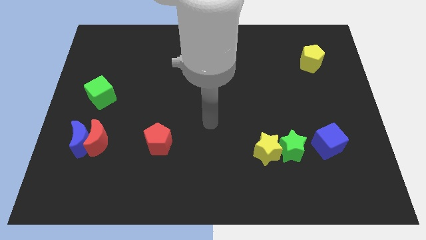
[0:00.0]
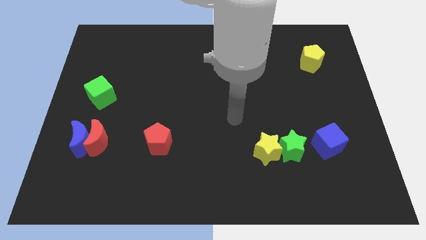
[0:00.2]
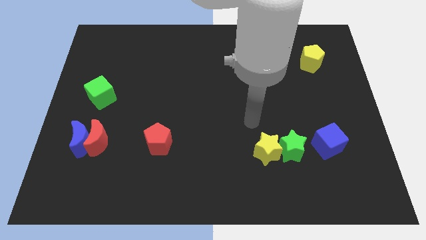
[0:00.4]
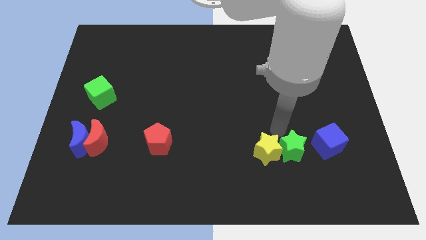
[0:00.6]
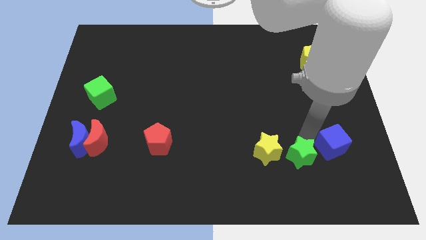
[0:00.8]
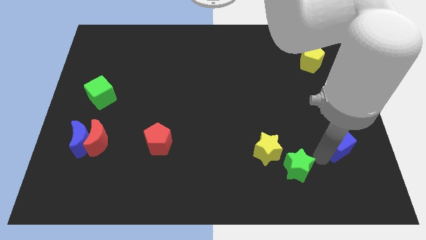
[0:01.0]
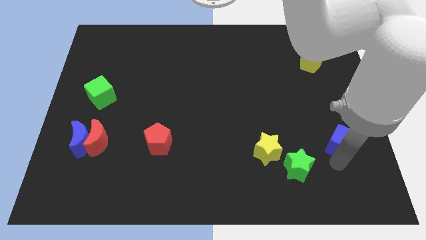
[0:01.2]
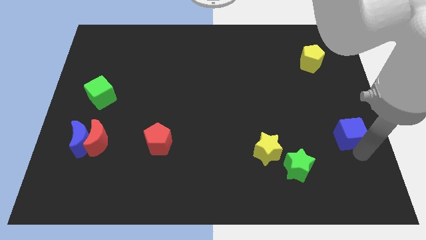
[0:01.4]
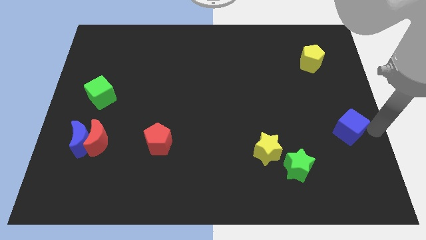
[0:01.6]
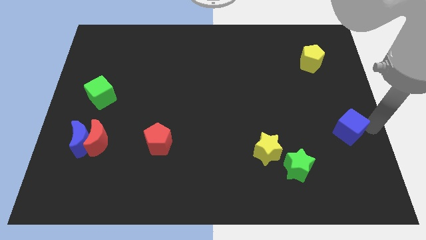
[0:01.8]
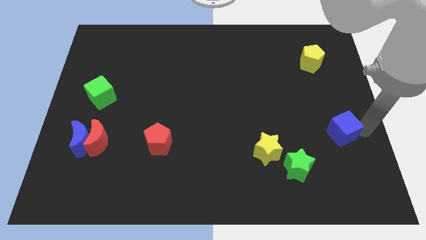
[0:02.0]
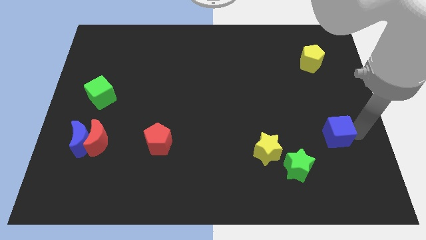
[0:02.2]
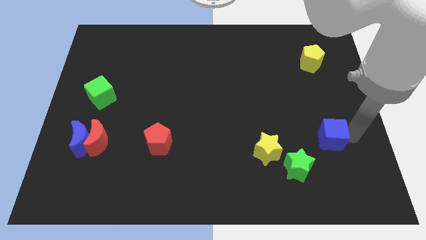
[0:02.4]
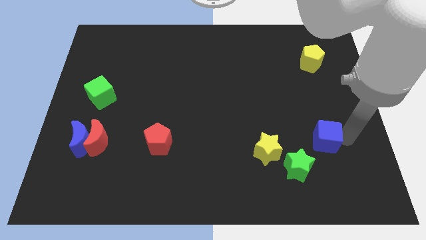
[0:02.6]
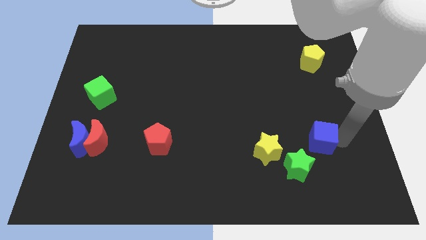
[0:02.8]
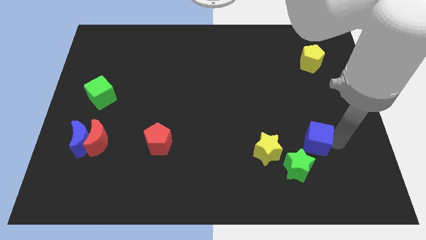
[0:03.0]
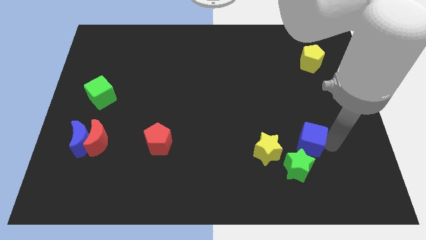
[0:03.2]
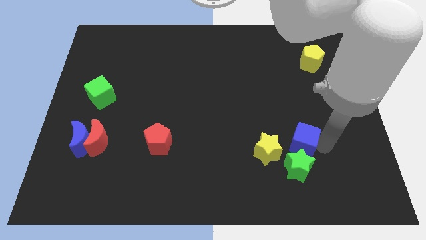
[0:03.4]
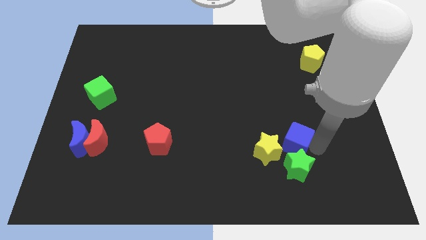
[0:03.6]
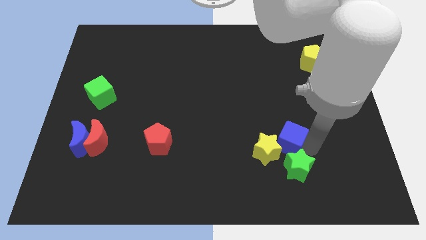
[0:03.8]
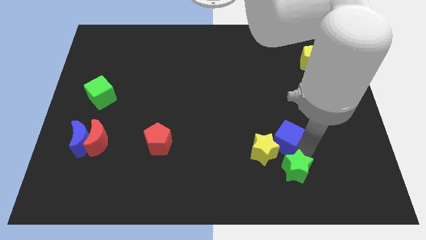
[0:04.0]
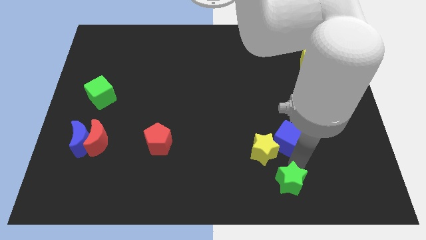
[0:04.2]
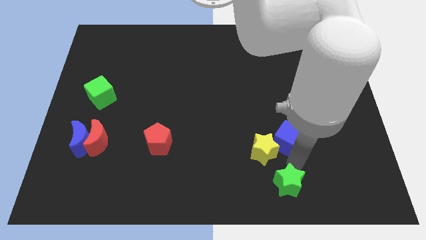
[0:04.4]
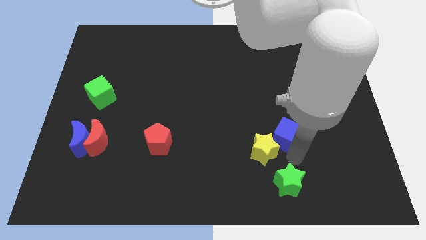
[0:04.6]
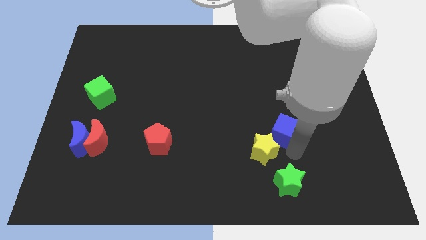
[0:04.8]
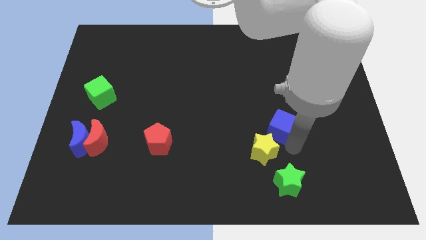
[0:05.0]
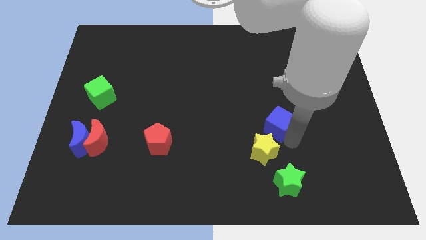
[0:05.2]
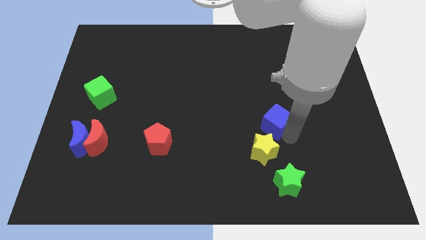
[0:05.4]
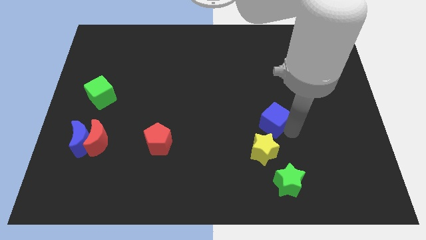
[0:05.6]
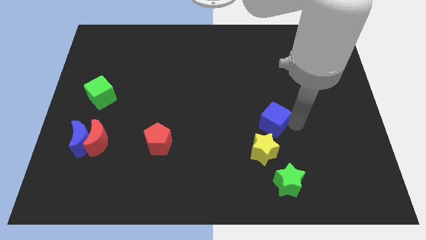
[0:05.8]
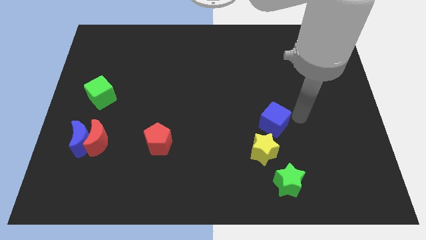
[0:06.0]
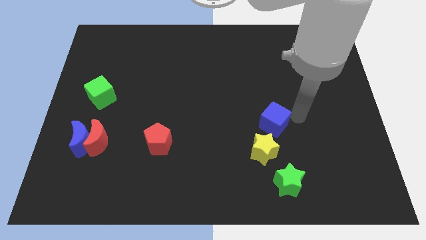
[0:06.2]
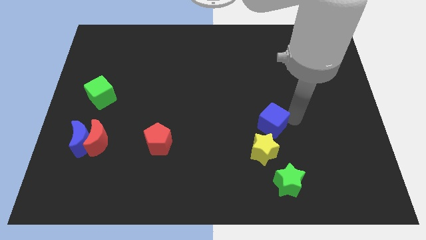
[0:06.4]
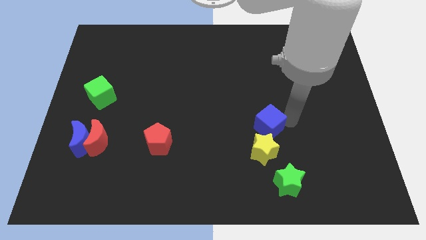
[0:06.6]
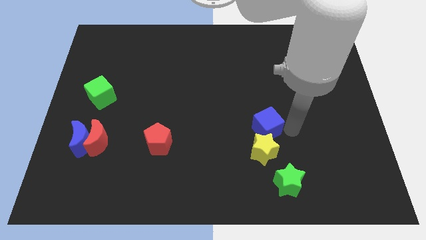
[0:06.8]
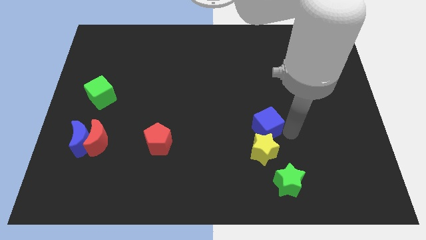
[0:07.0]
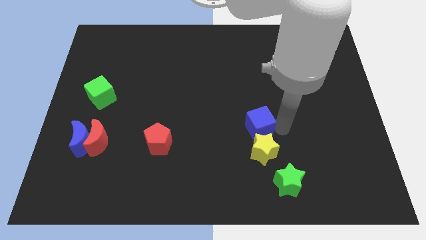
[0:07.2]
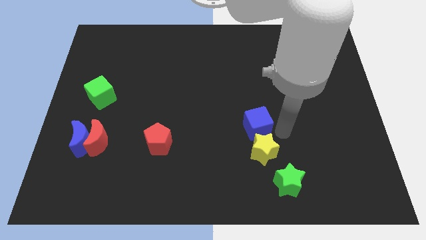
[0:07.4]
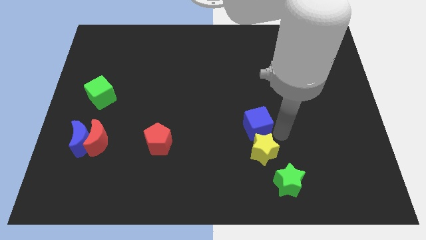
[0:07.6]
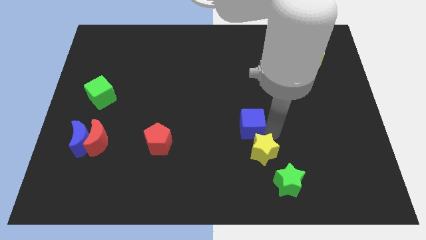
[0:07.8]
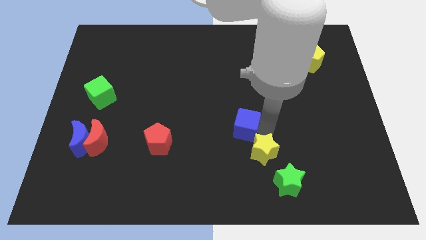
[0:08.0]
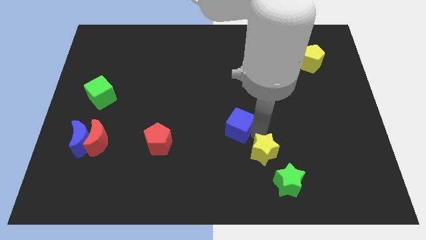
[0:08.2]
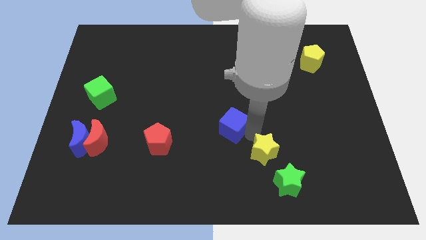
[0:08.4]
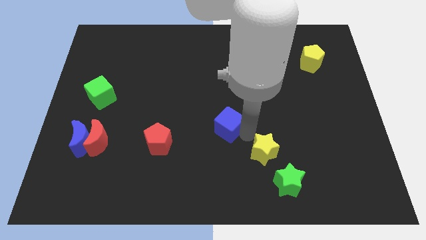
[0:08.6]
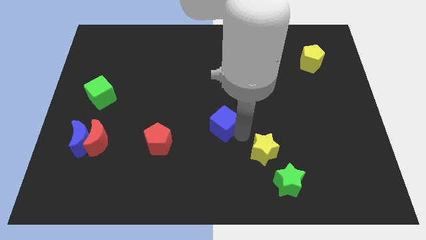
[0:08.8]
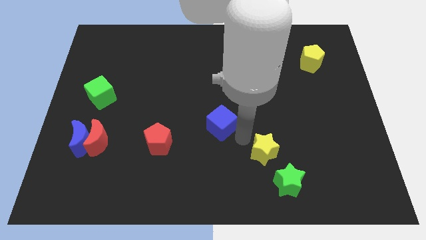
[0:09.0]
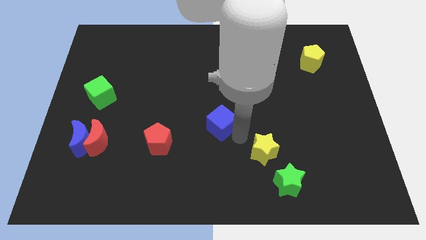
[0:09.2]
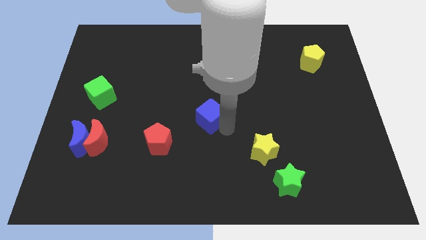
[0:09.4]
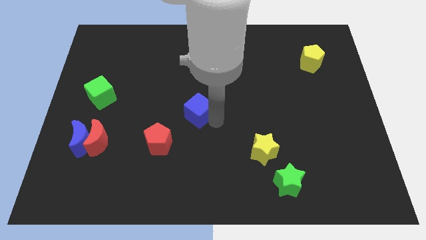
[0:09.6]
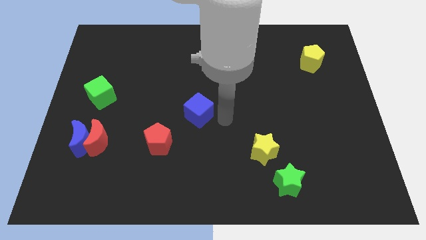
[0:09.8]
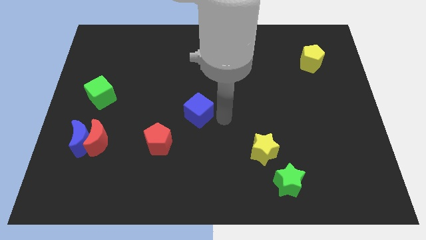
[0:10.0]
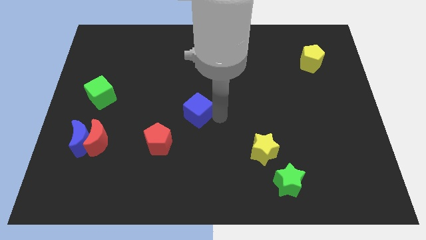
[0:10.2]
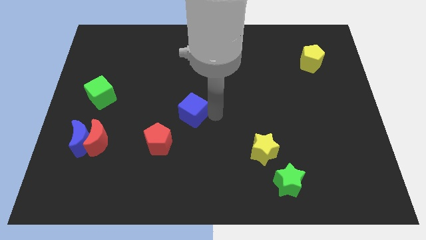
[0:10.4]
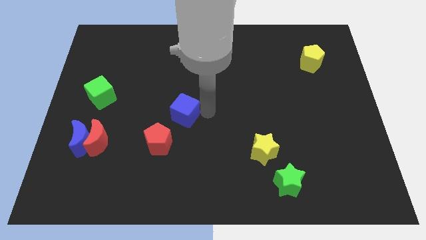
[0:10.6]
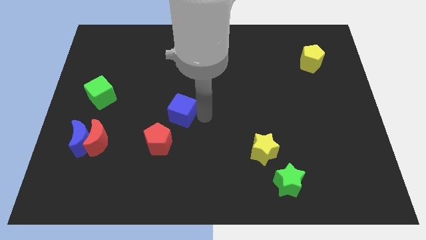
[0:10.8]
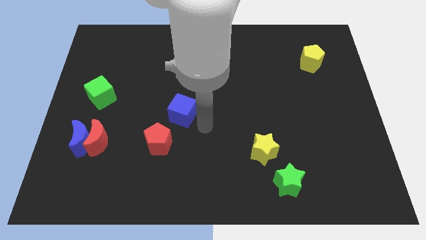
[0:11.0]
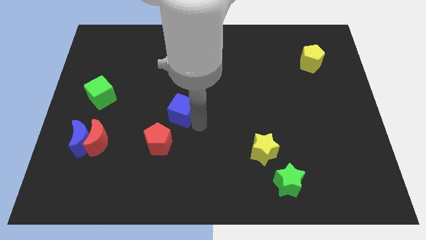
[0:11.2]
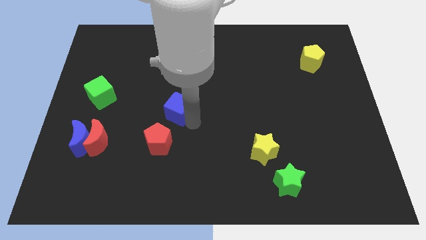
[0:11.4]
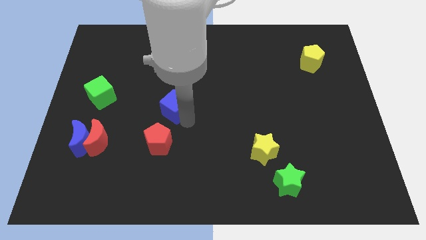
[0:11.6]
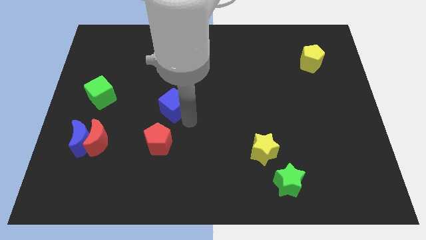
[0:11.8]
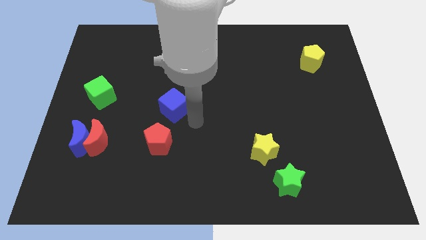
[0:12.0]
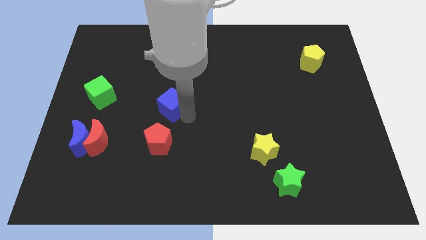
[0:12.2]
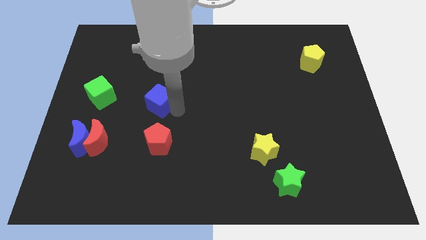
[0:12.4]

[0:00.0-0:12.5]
slide the blue cube just right of the green cube

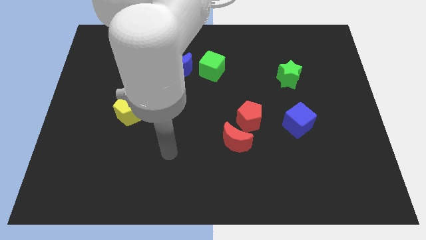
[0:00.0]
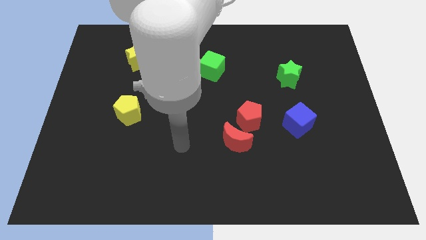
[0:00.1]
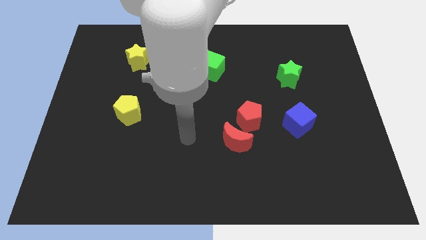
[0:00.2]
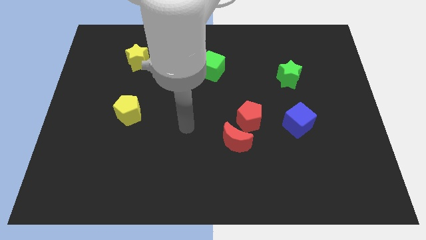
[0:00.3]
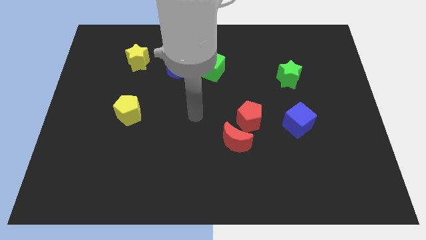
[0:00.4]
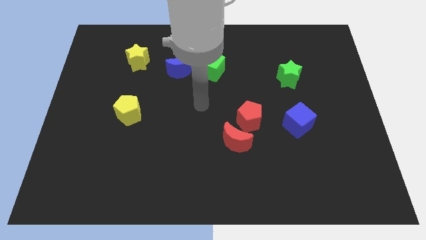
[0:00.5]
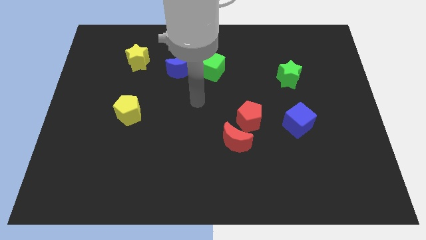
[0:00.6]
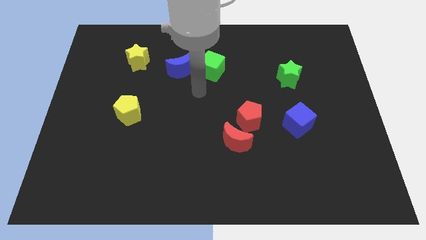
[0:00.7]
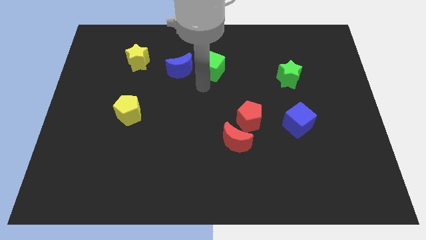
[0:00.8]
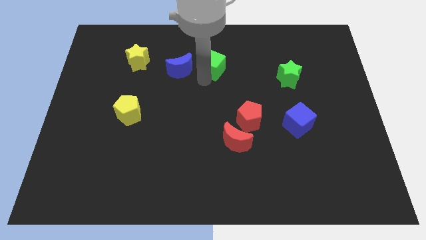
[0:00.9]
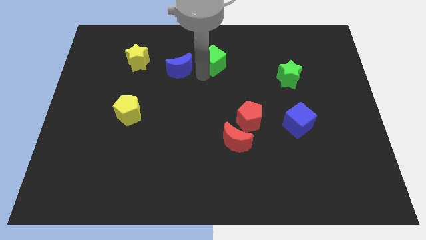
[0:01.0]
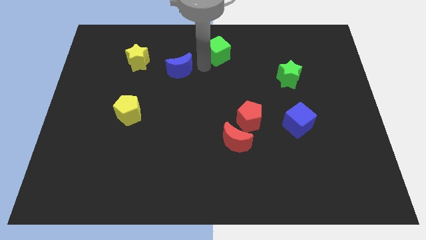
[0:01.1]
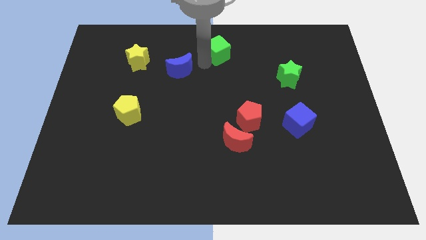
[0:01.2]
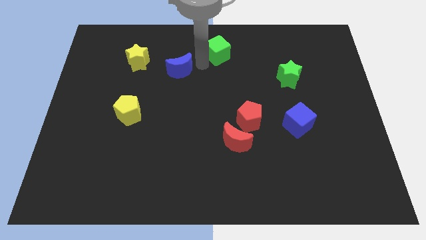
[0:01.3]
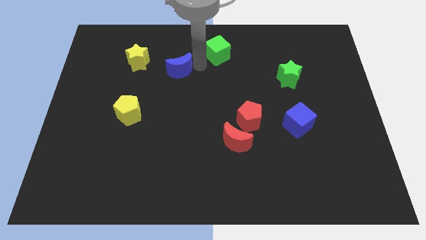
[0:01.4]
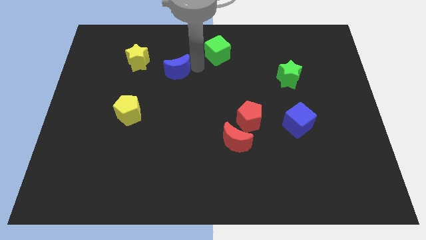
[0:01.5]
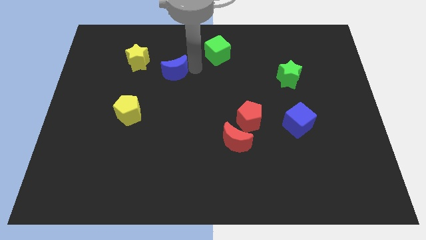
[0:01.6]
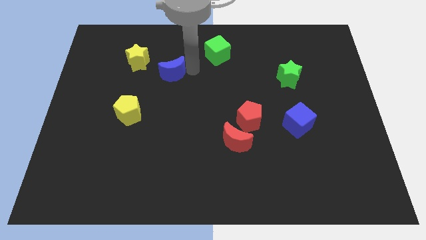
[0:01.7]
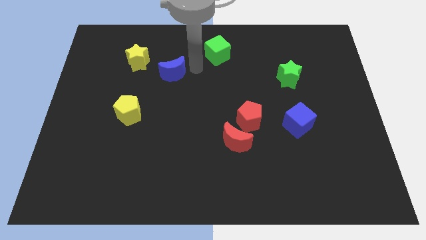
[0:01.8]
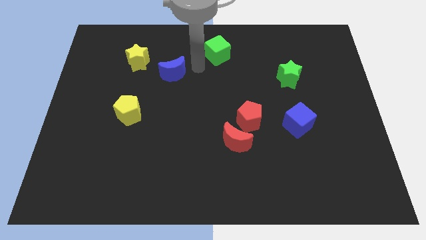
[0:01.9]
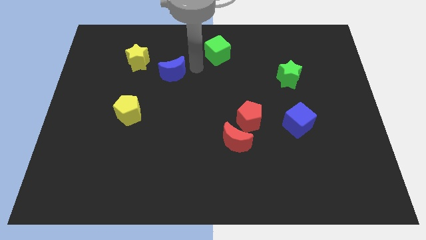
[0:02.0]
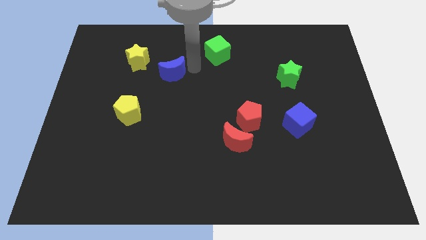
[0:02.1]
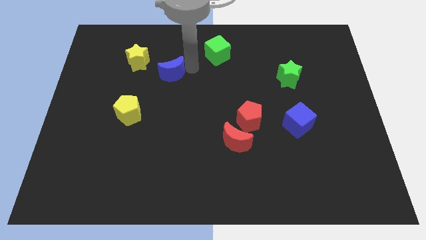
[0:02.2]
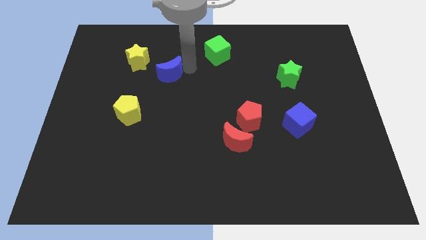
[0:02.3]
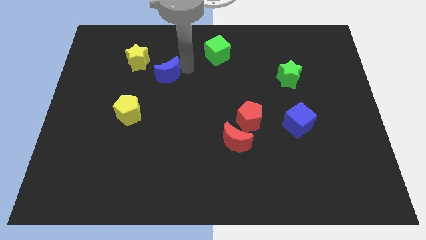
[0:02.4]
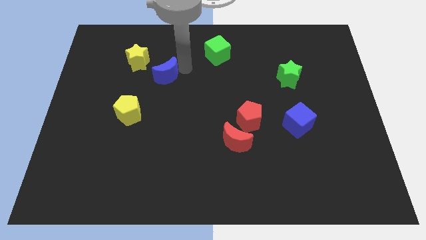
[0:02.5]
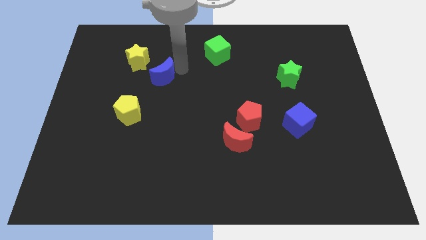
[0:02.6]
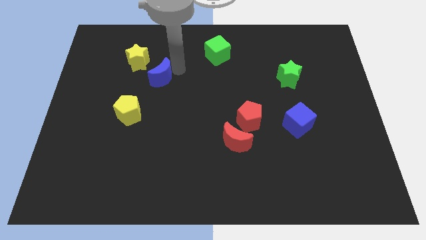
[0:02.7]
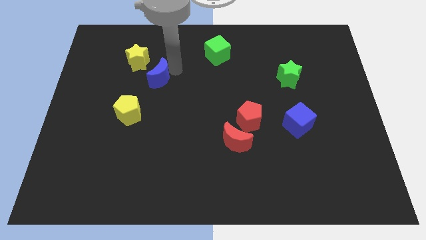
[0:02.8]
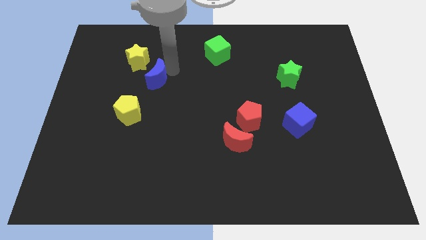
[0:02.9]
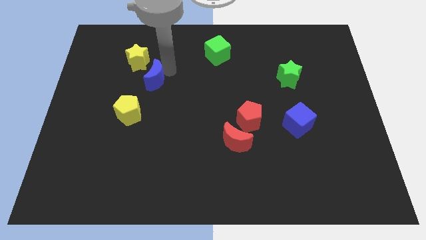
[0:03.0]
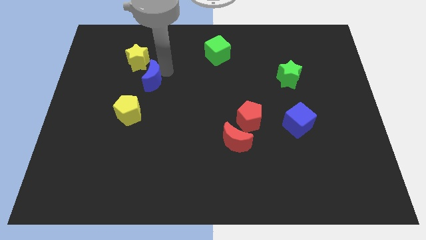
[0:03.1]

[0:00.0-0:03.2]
put the blue moon above the yellow pentagon
